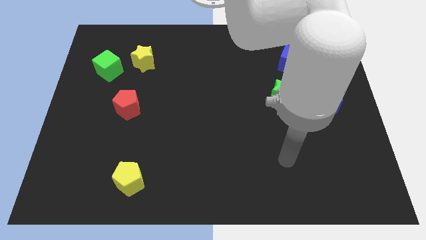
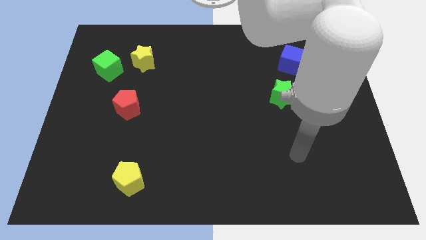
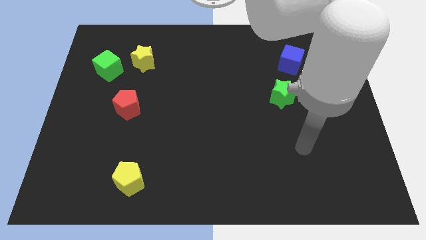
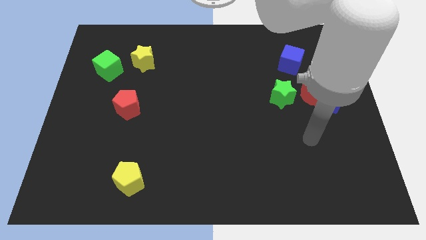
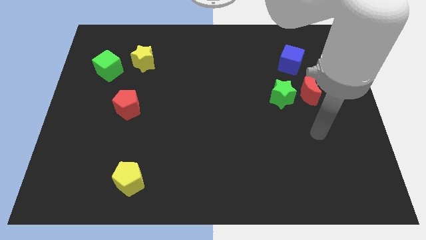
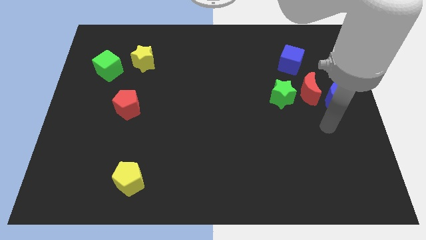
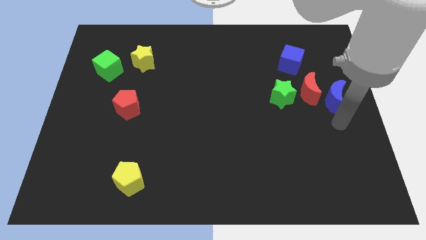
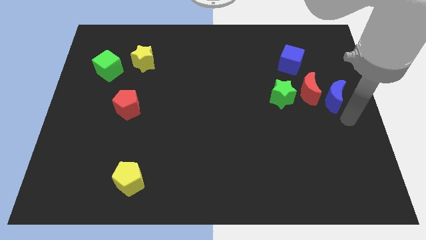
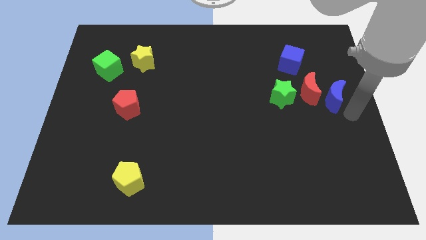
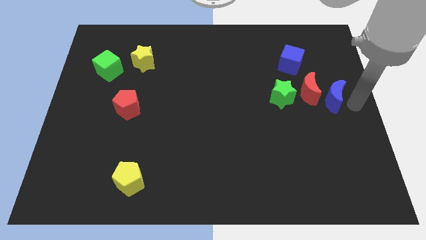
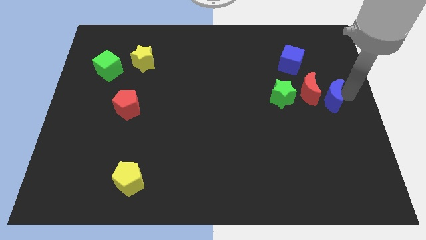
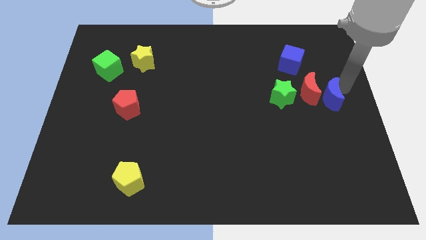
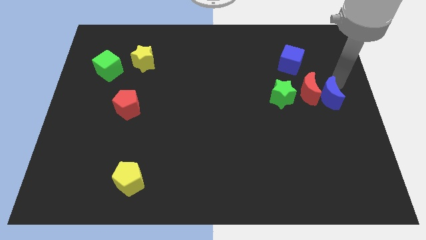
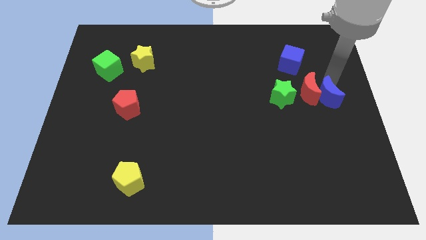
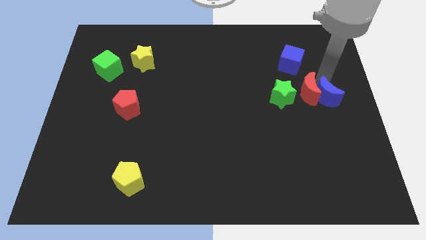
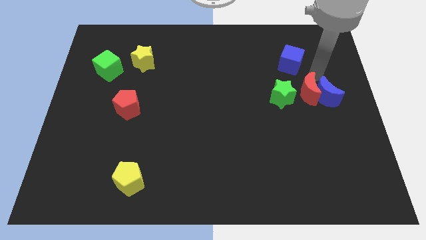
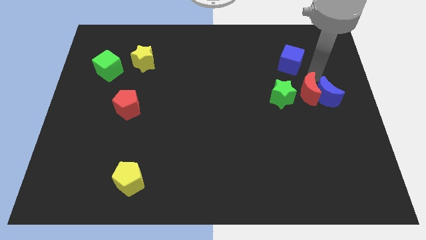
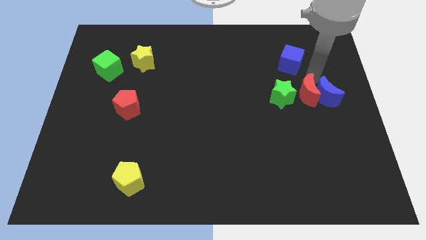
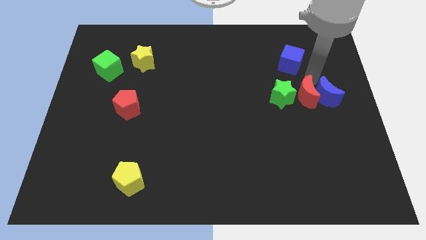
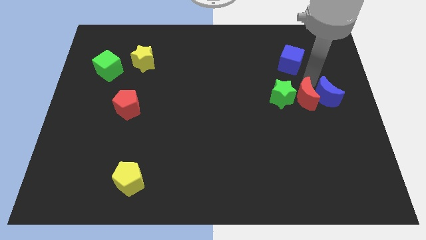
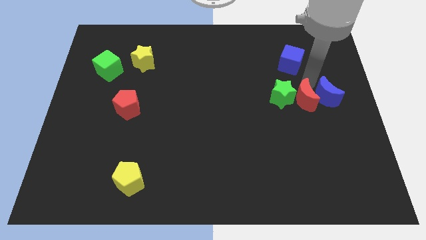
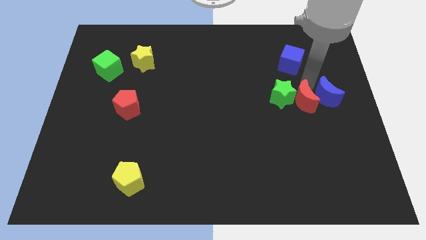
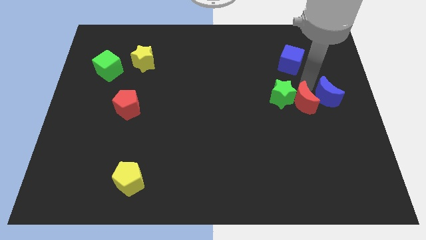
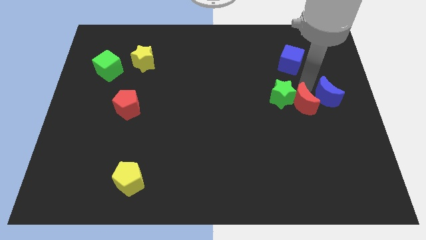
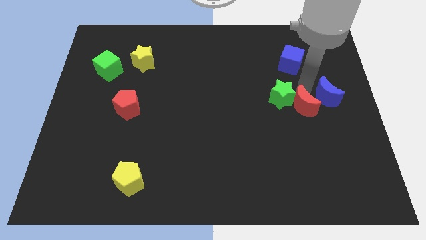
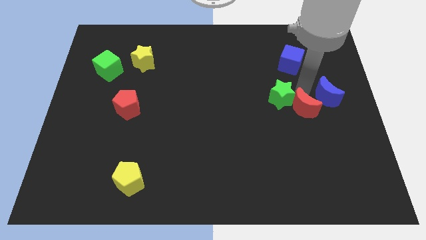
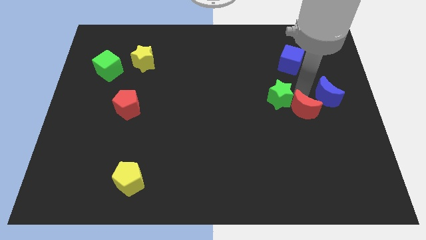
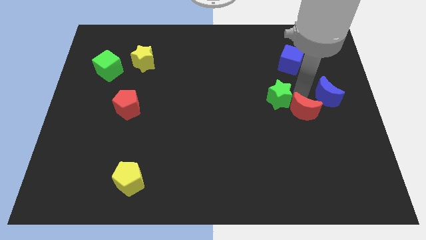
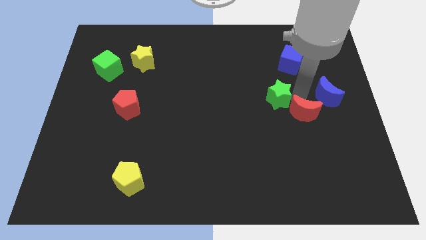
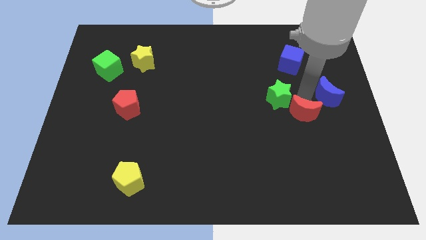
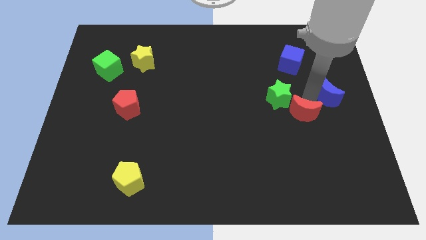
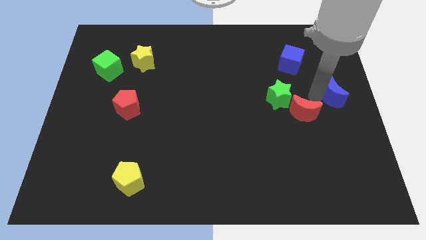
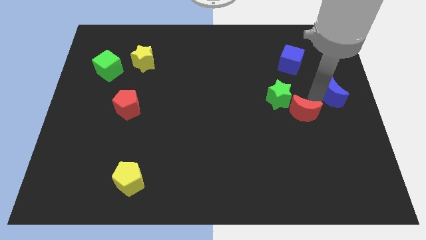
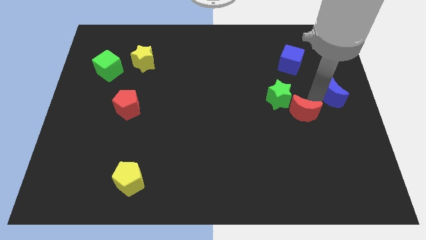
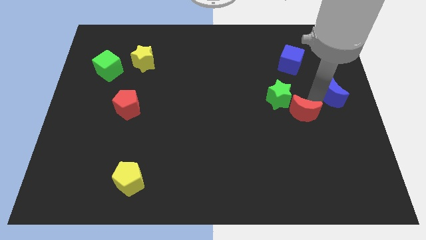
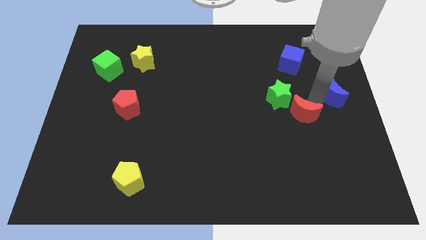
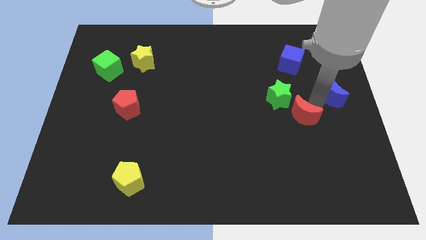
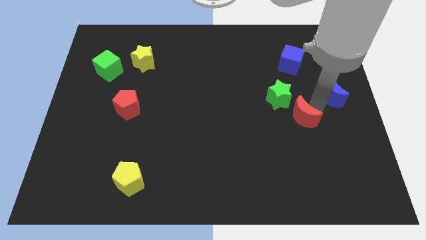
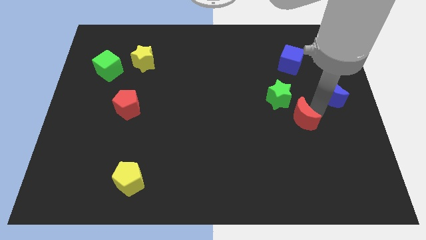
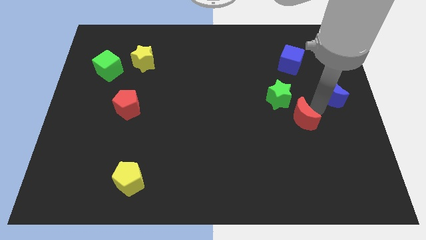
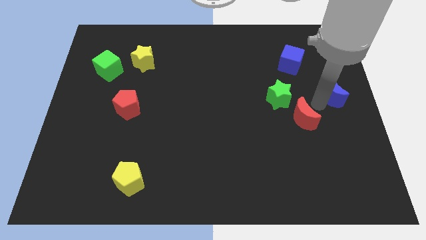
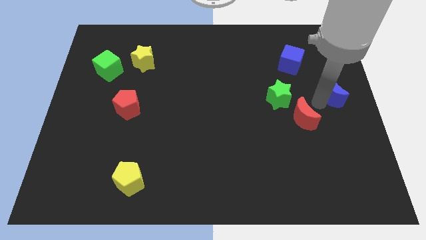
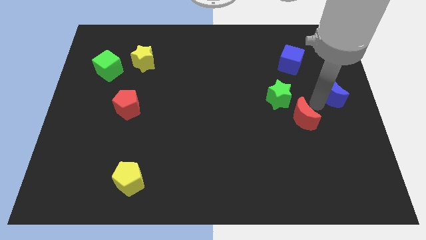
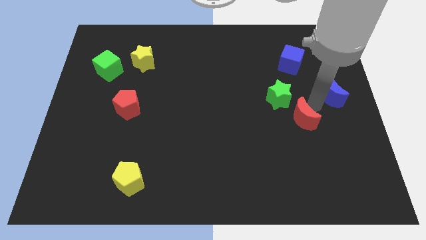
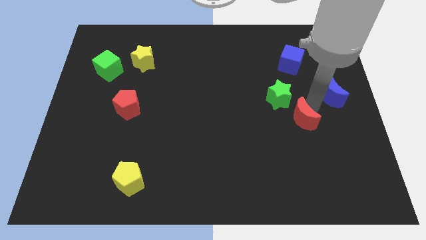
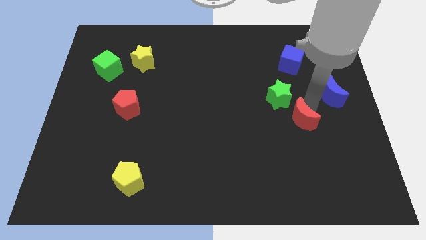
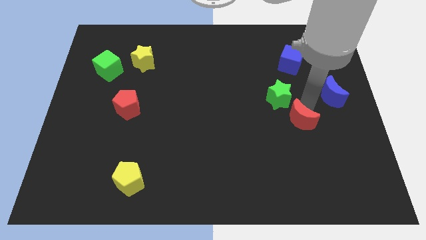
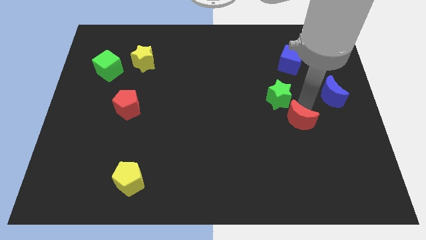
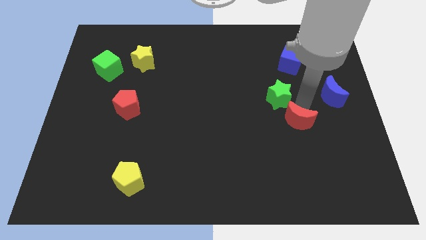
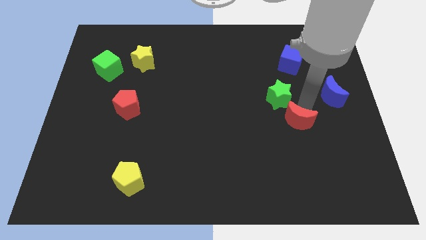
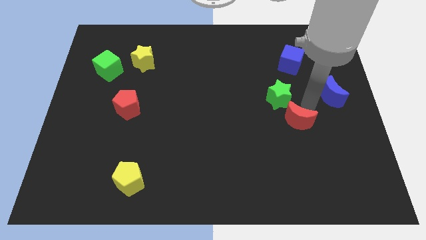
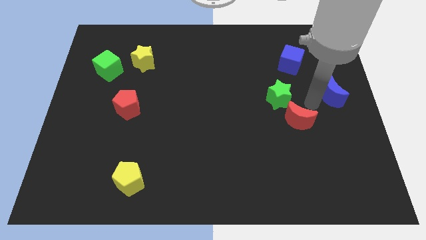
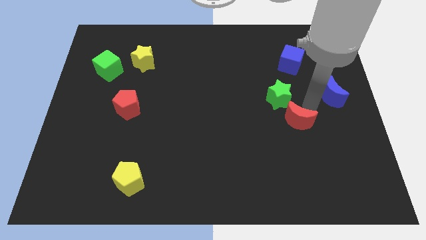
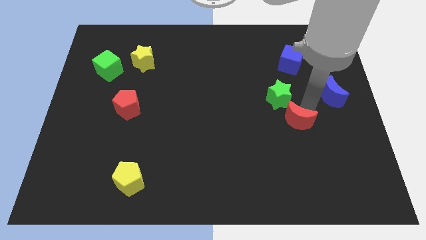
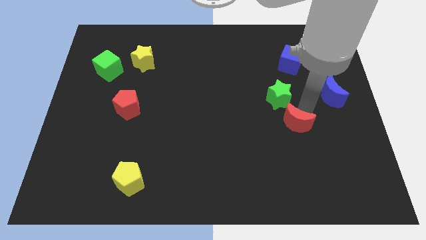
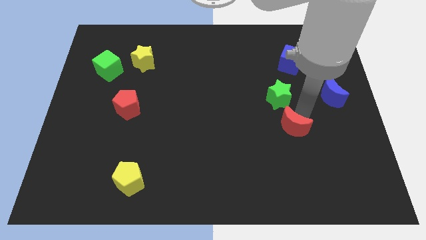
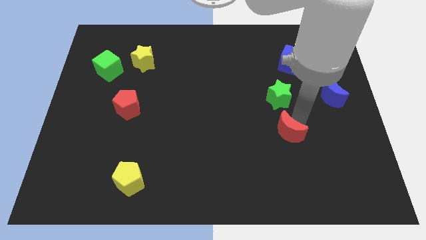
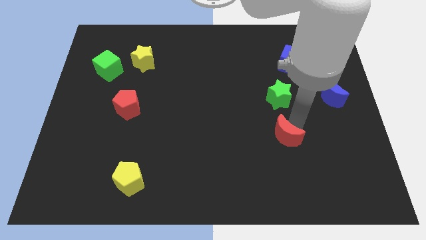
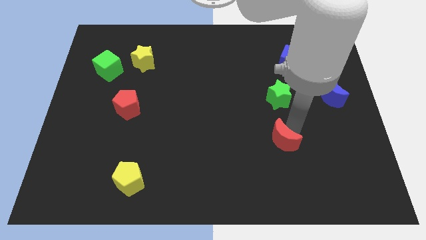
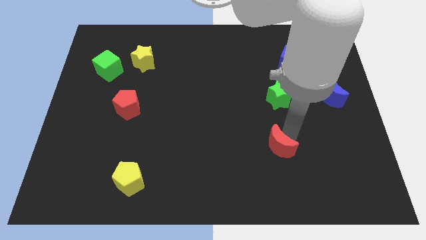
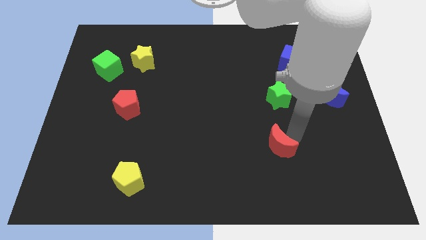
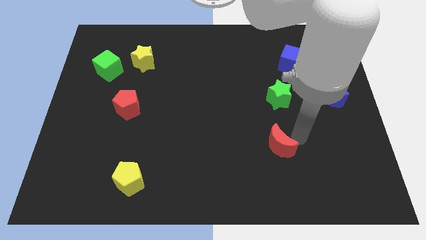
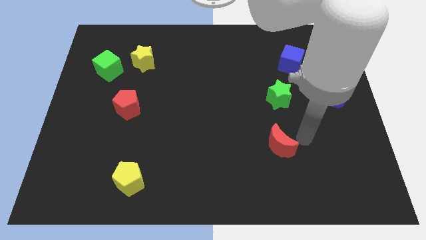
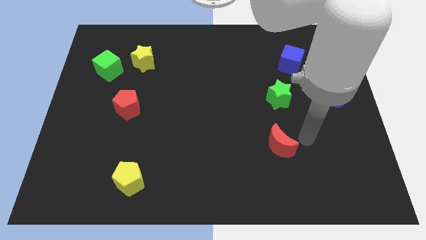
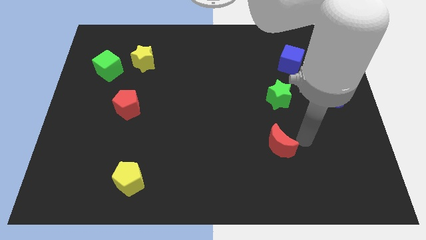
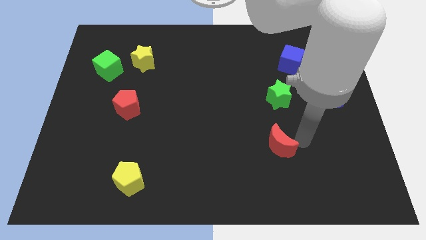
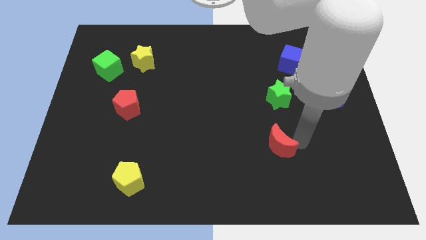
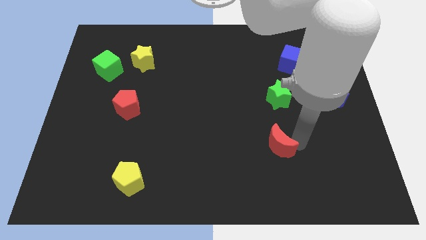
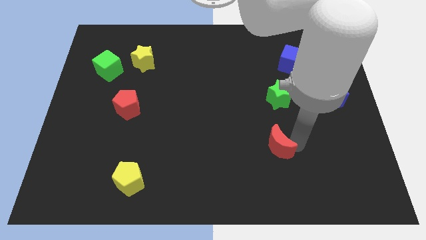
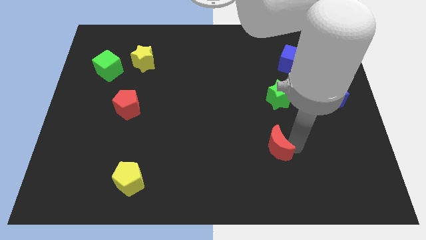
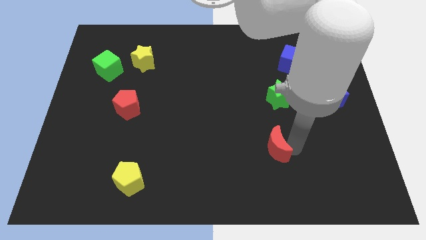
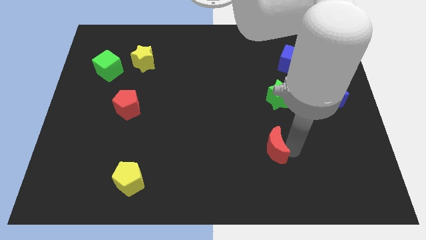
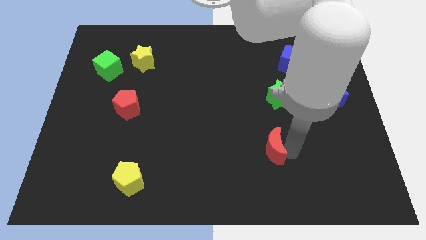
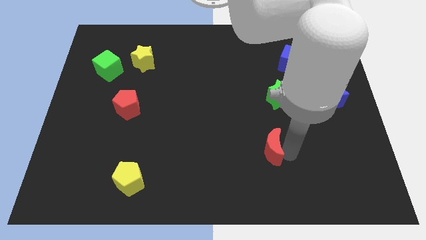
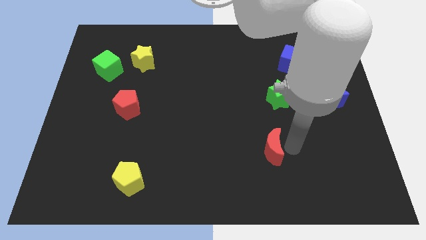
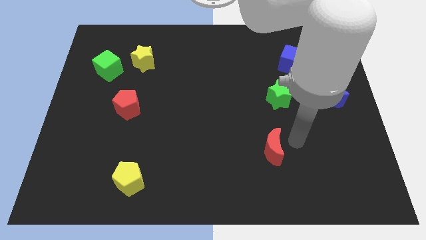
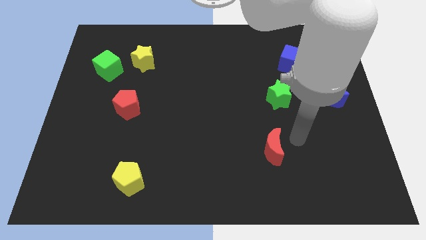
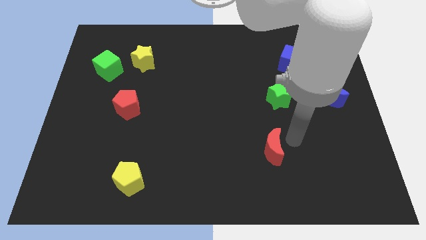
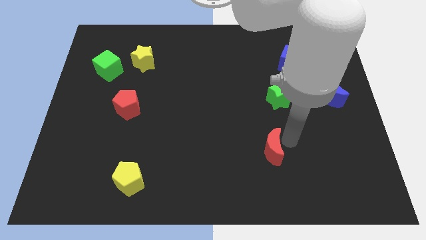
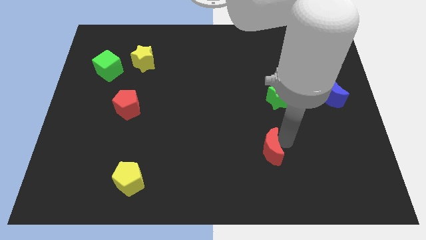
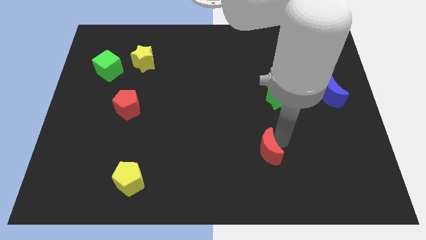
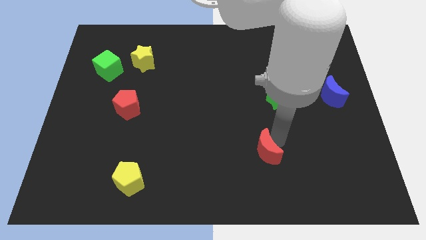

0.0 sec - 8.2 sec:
push the red moon downwards and then left
